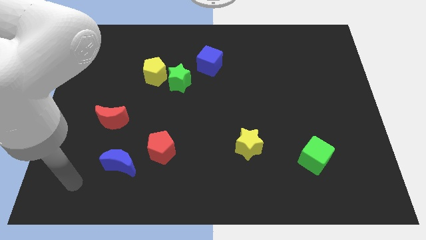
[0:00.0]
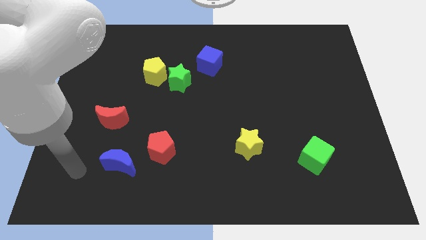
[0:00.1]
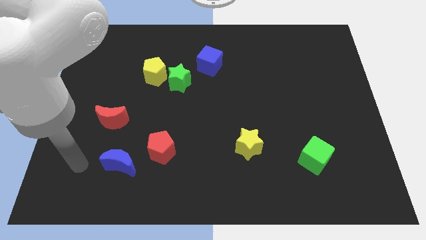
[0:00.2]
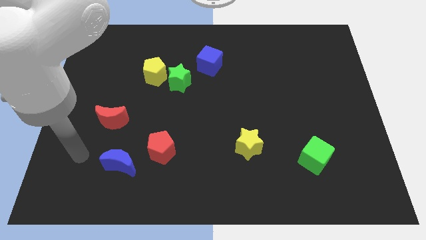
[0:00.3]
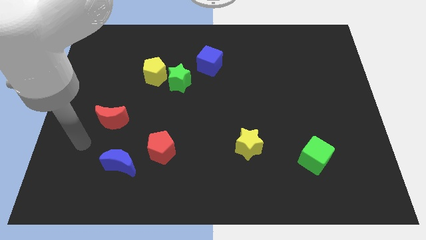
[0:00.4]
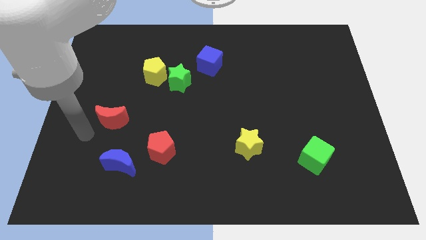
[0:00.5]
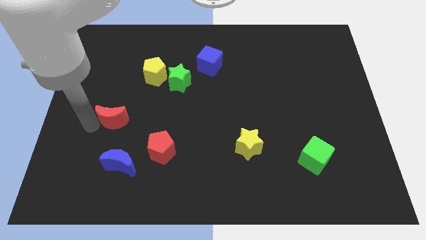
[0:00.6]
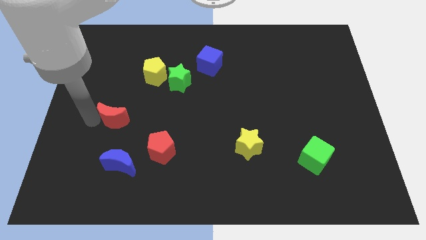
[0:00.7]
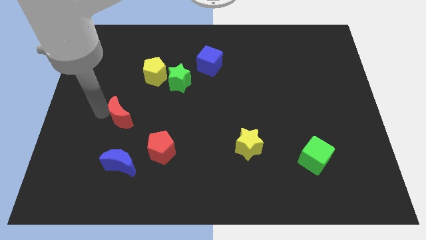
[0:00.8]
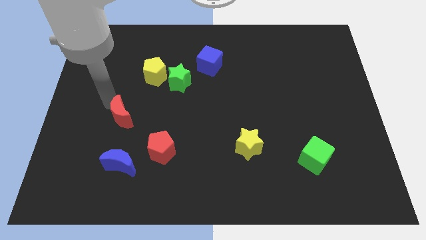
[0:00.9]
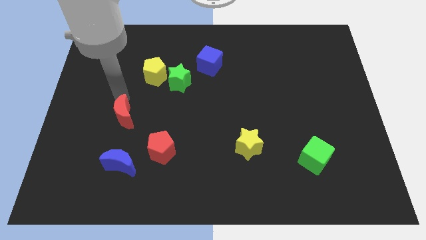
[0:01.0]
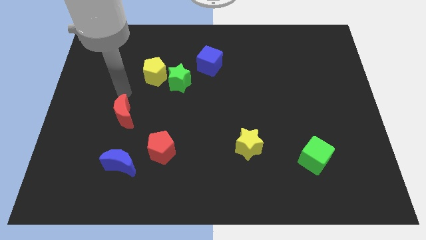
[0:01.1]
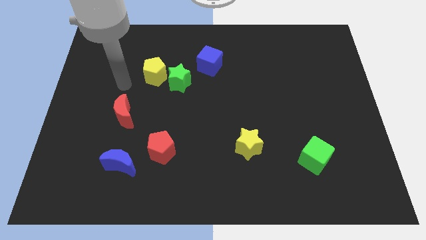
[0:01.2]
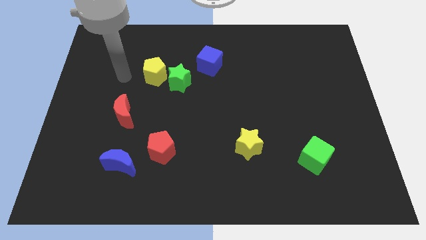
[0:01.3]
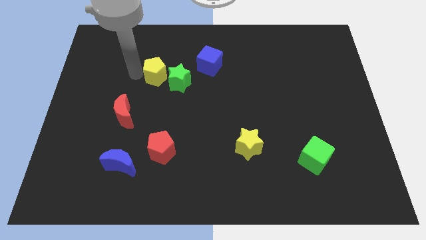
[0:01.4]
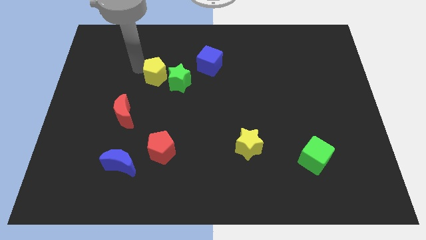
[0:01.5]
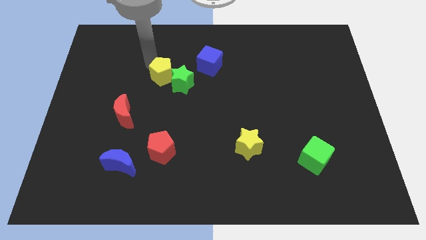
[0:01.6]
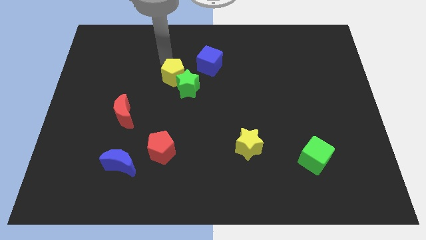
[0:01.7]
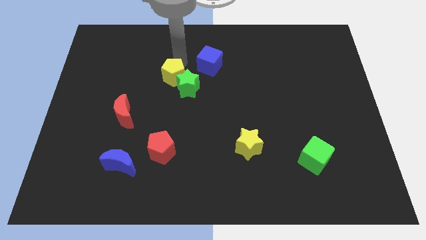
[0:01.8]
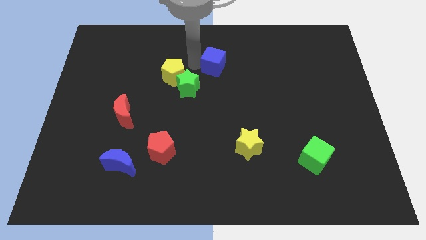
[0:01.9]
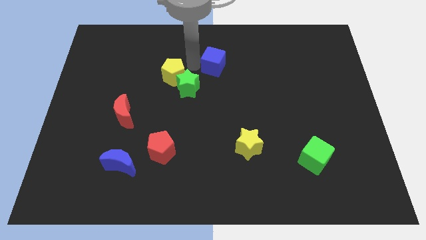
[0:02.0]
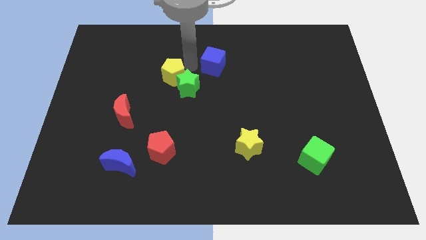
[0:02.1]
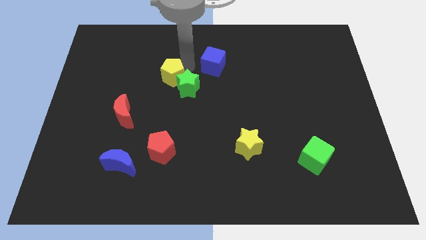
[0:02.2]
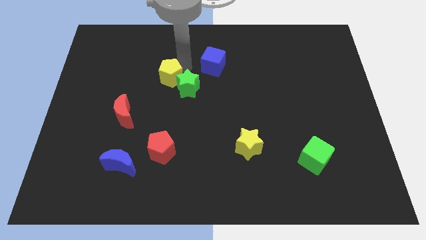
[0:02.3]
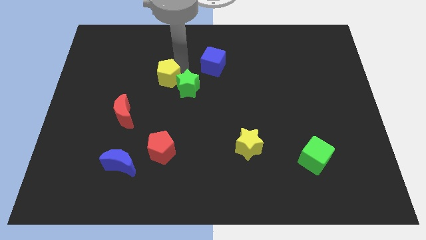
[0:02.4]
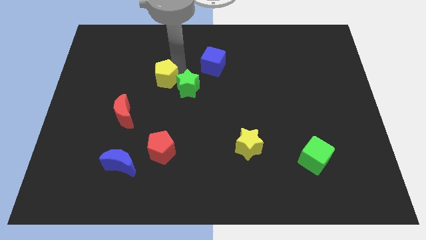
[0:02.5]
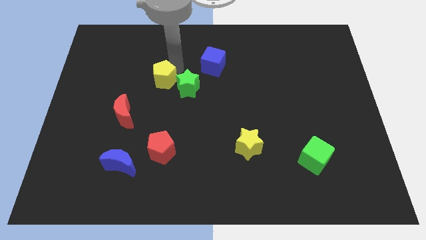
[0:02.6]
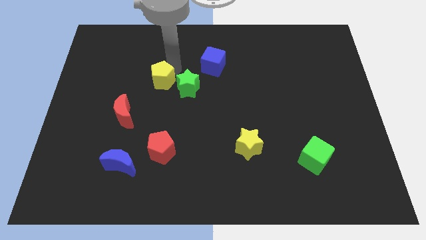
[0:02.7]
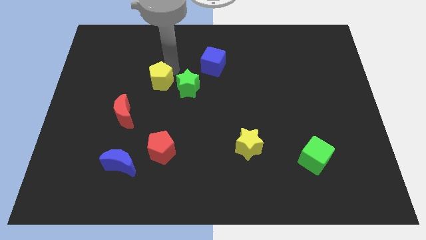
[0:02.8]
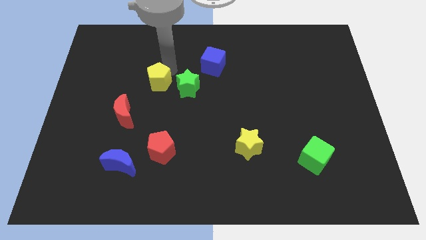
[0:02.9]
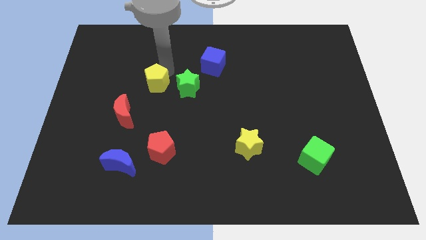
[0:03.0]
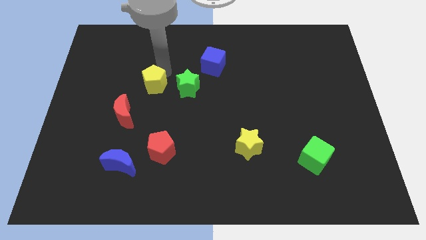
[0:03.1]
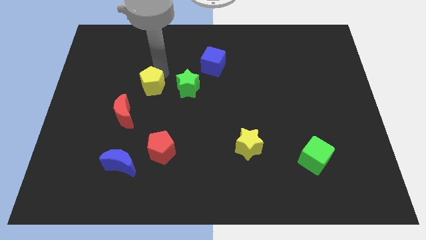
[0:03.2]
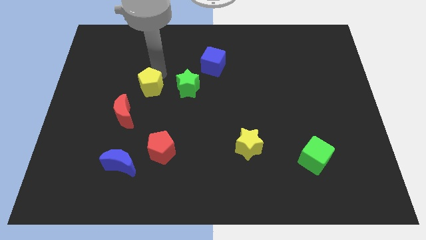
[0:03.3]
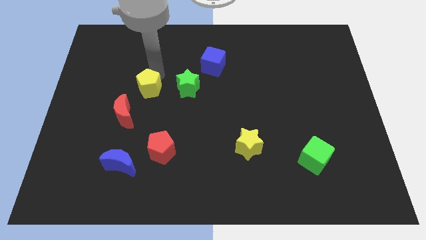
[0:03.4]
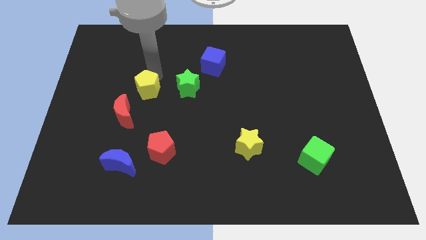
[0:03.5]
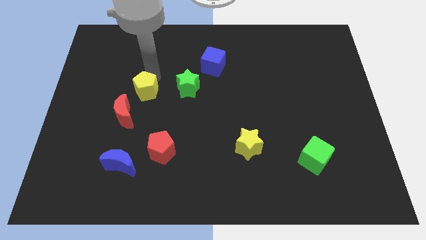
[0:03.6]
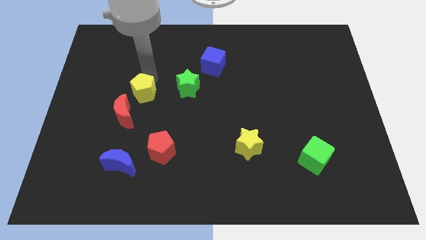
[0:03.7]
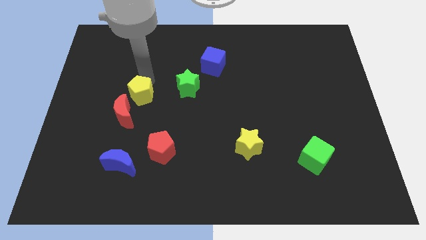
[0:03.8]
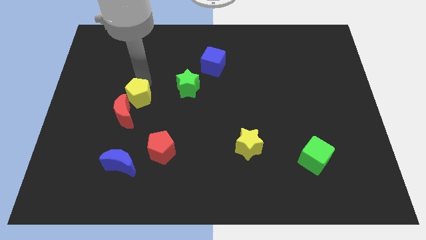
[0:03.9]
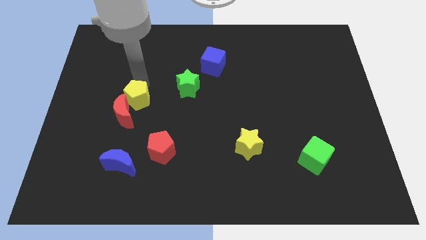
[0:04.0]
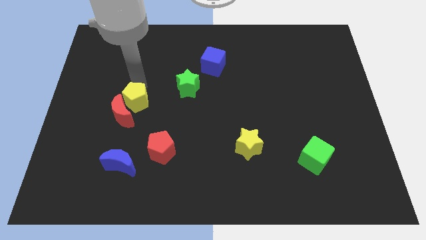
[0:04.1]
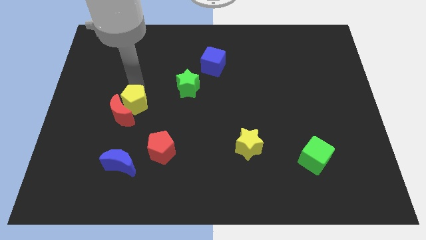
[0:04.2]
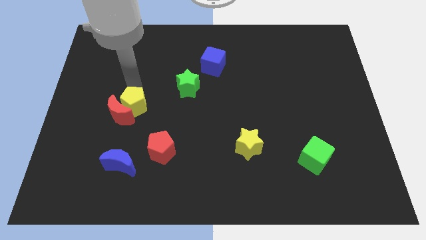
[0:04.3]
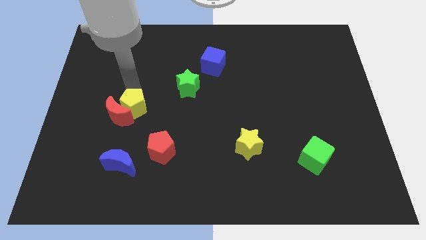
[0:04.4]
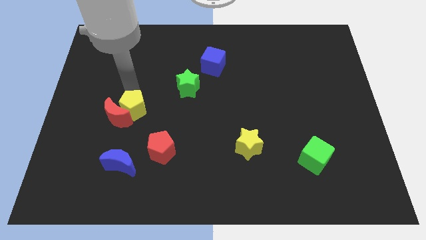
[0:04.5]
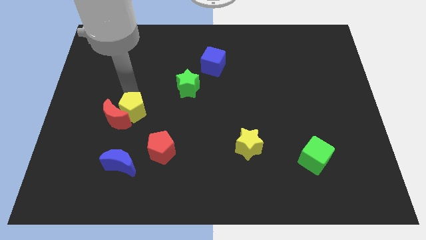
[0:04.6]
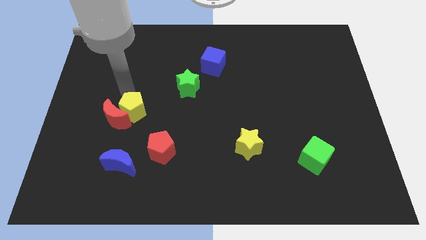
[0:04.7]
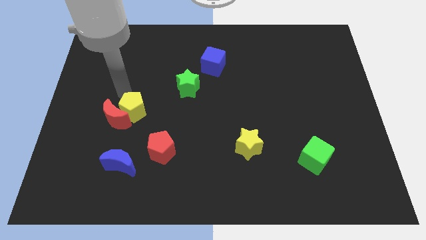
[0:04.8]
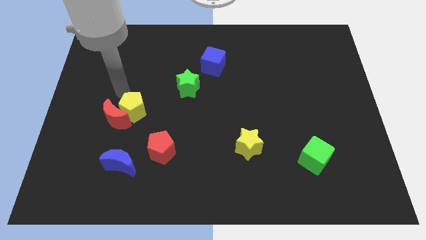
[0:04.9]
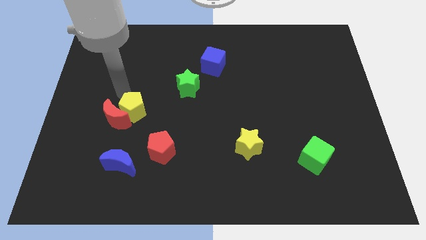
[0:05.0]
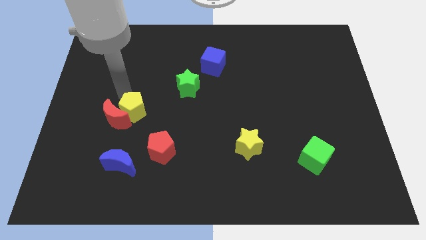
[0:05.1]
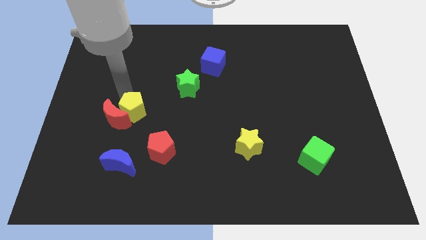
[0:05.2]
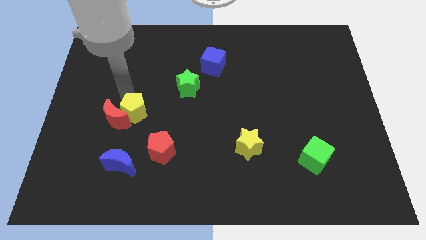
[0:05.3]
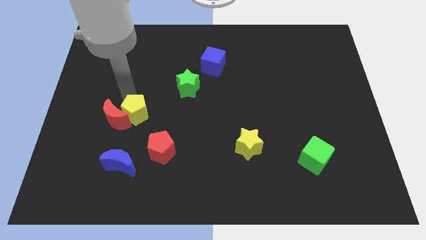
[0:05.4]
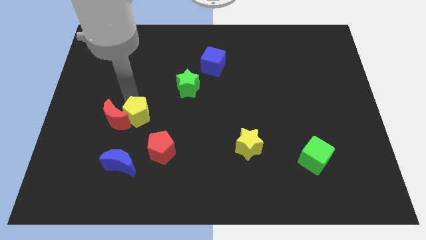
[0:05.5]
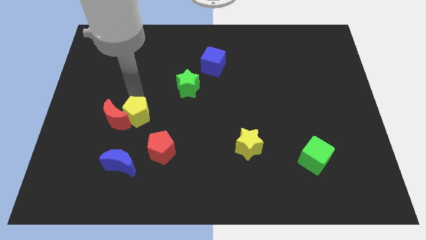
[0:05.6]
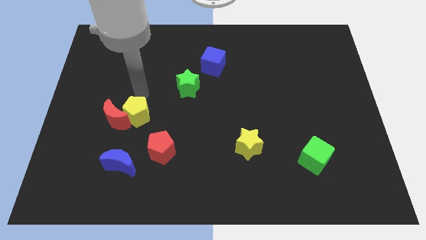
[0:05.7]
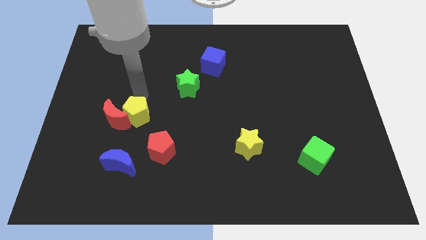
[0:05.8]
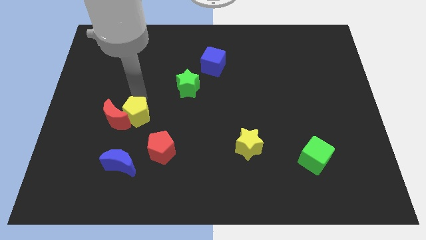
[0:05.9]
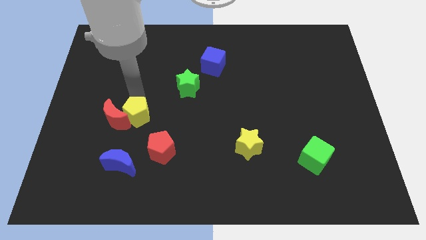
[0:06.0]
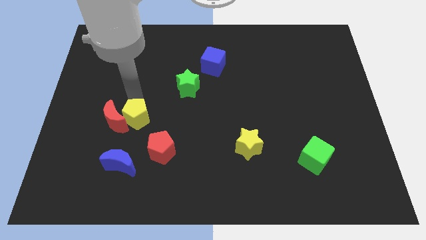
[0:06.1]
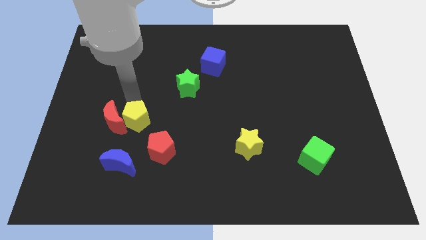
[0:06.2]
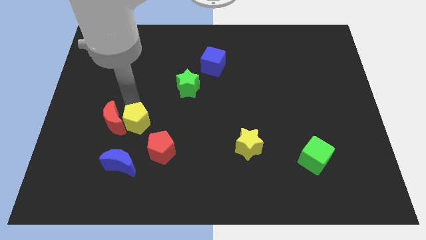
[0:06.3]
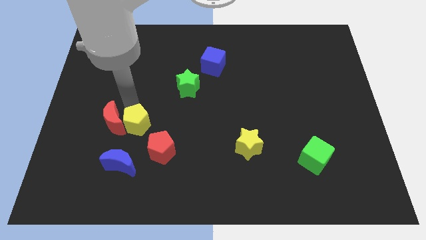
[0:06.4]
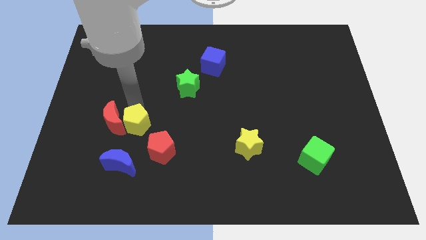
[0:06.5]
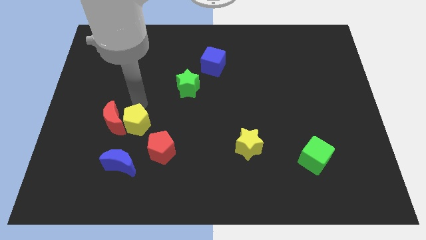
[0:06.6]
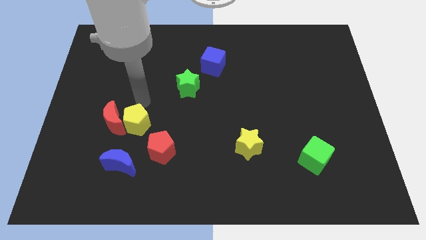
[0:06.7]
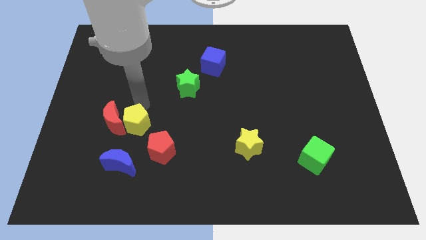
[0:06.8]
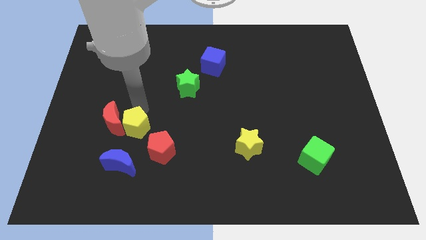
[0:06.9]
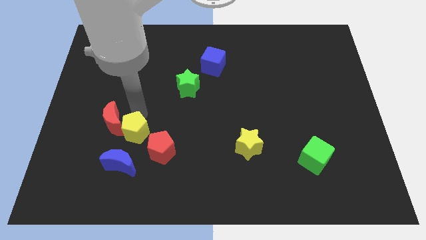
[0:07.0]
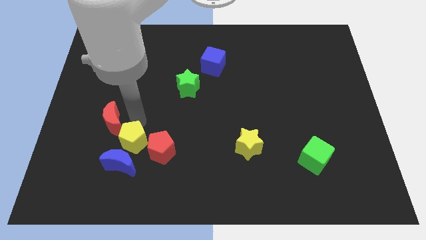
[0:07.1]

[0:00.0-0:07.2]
move the yellow pentagon close to the blue moon
